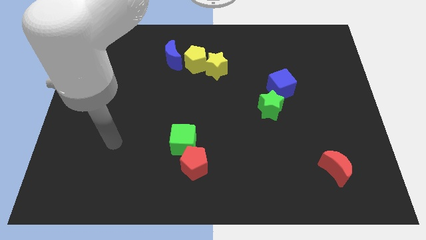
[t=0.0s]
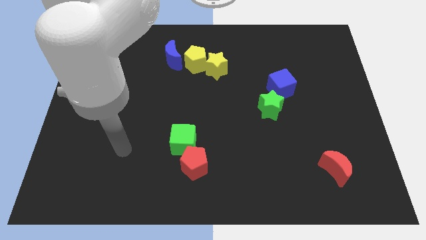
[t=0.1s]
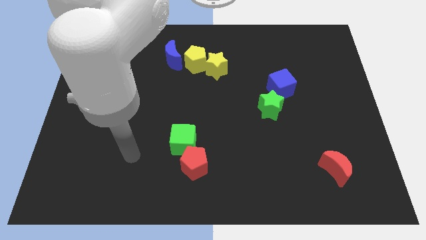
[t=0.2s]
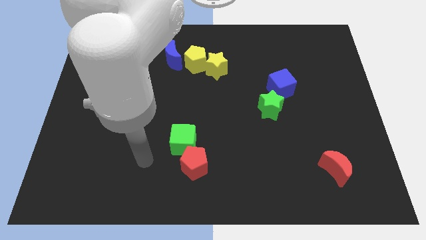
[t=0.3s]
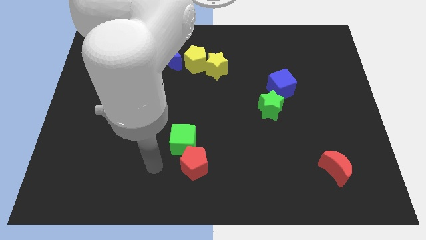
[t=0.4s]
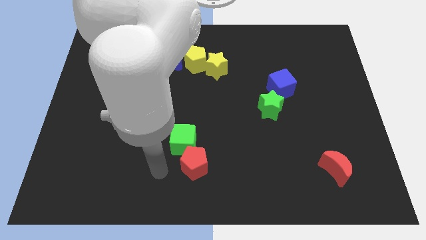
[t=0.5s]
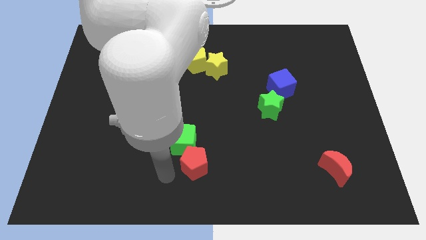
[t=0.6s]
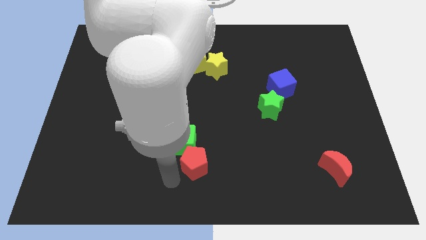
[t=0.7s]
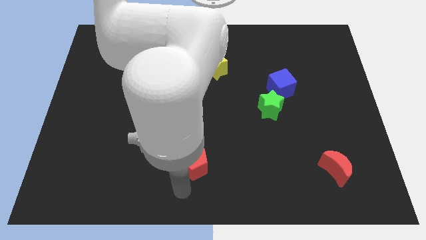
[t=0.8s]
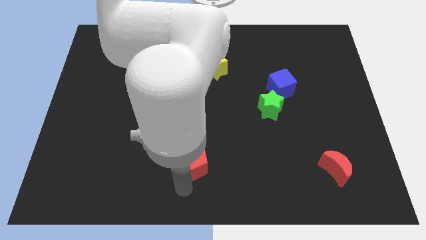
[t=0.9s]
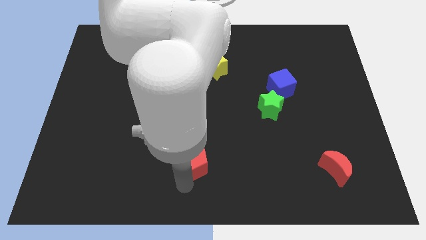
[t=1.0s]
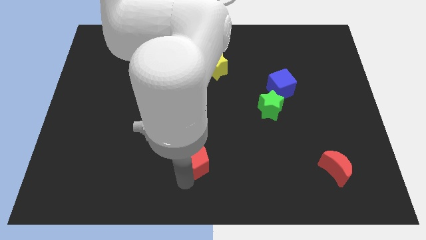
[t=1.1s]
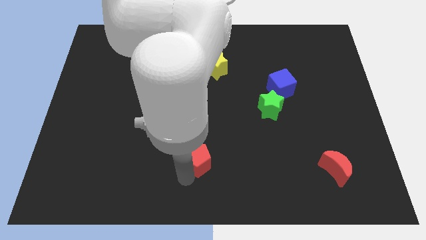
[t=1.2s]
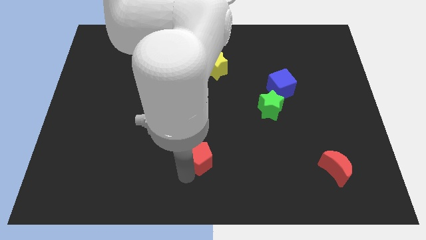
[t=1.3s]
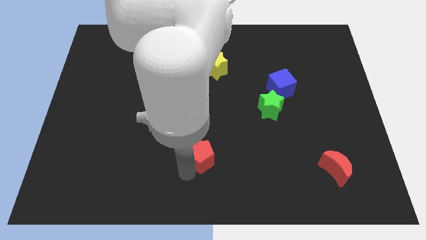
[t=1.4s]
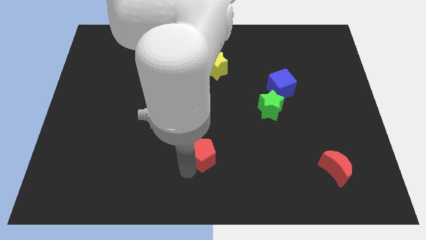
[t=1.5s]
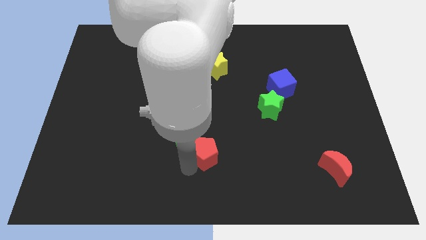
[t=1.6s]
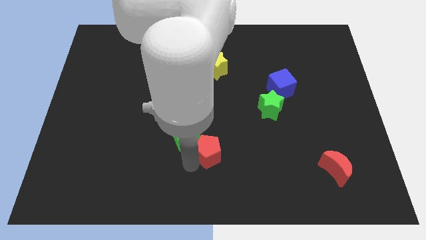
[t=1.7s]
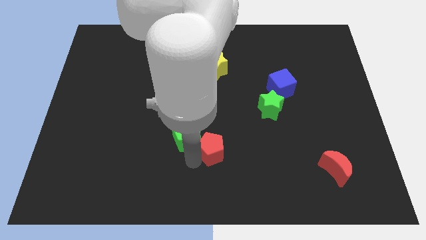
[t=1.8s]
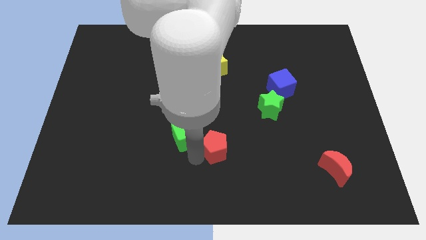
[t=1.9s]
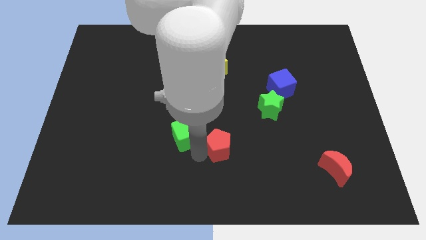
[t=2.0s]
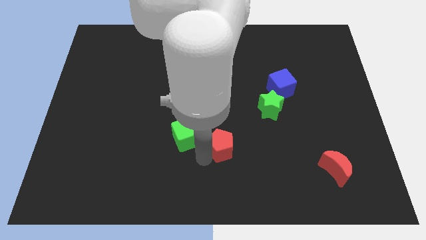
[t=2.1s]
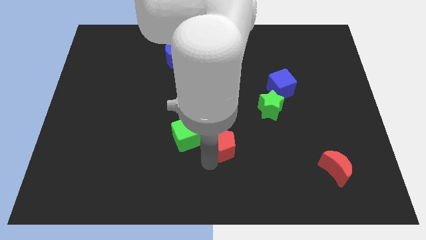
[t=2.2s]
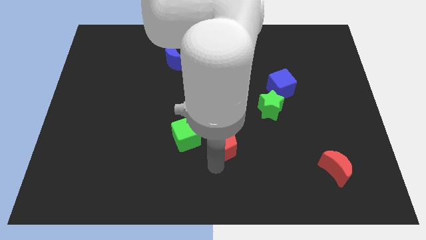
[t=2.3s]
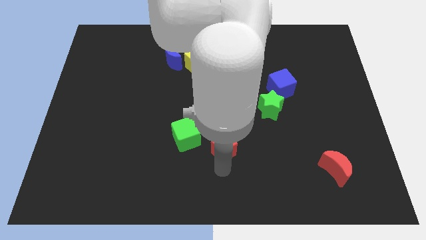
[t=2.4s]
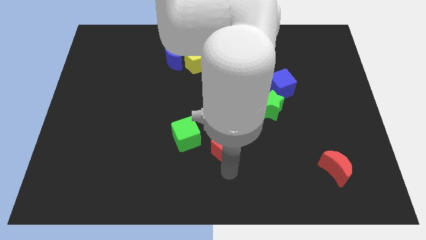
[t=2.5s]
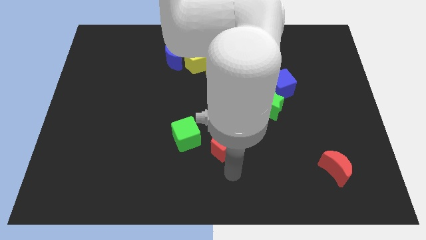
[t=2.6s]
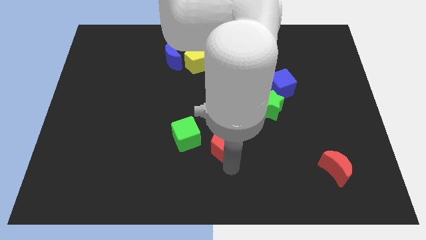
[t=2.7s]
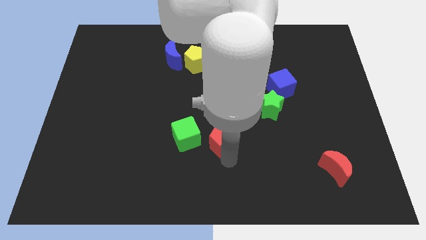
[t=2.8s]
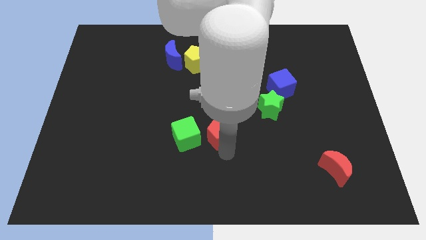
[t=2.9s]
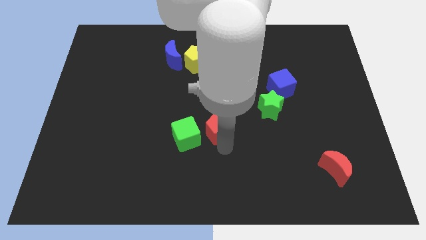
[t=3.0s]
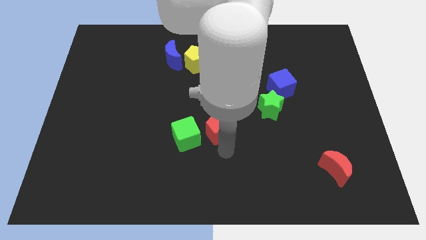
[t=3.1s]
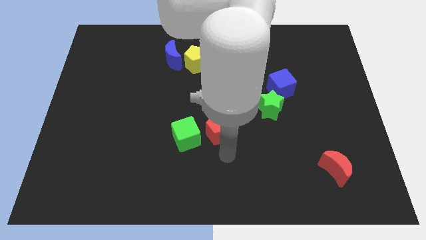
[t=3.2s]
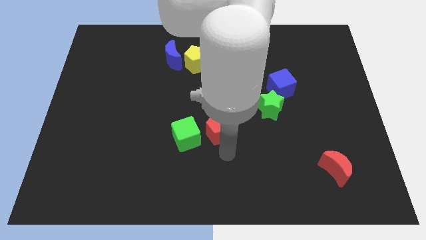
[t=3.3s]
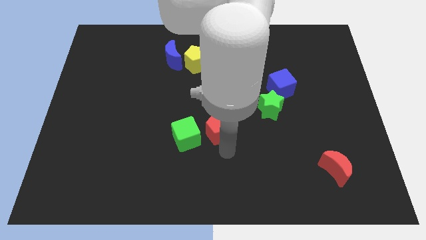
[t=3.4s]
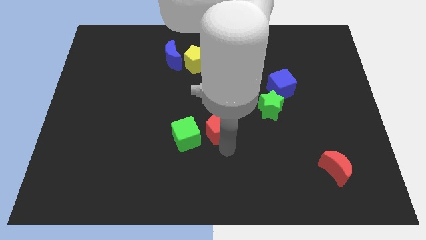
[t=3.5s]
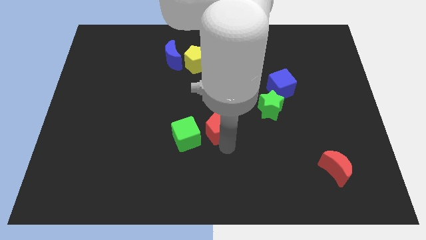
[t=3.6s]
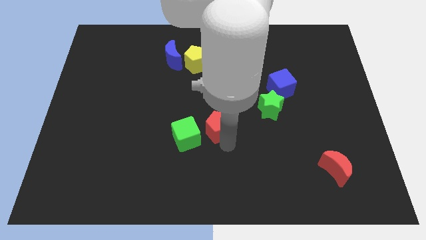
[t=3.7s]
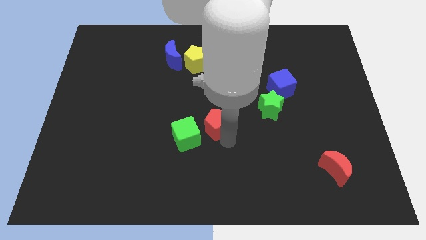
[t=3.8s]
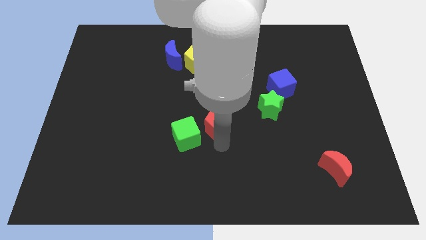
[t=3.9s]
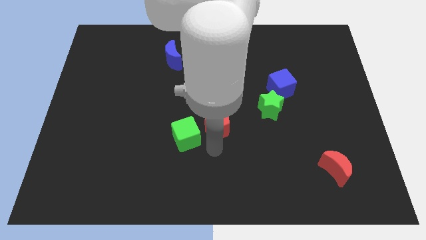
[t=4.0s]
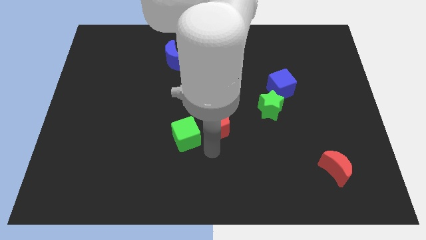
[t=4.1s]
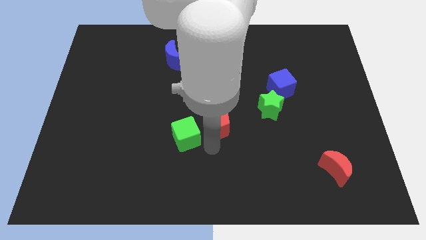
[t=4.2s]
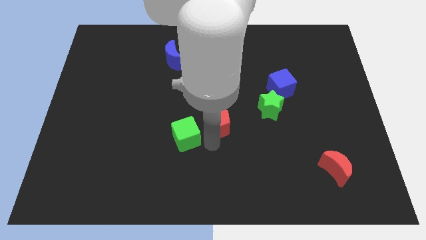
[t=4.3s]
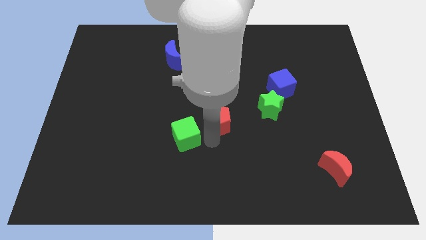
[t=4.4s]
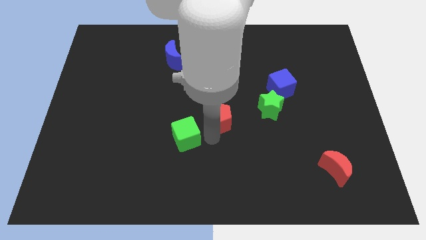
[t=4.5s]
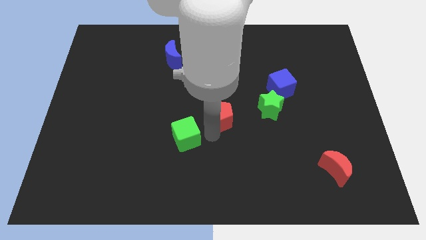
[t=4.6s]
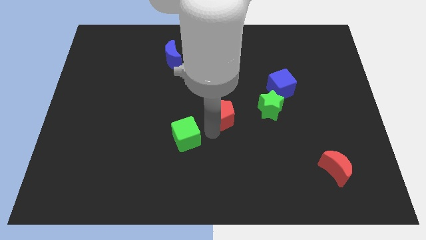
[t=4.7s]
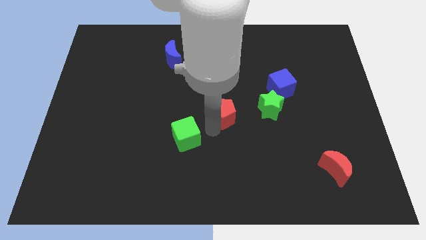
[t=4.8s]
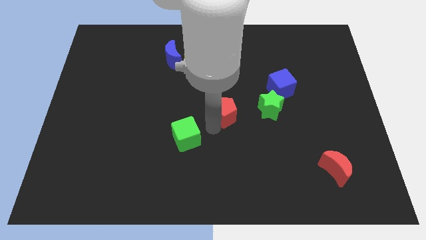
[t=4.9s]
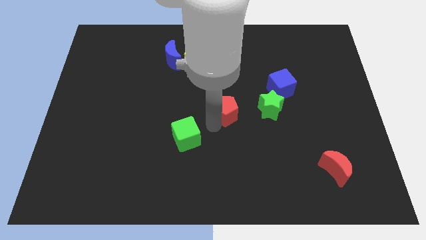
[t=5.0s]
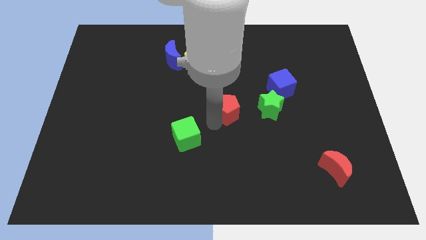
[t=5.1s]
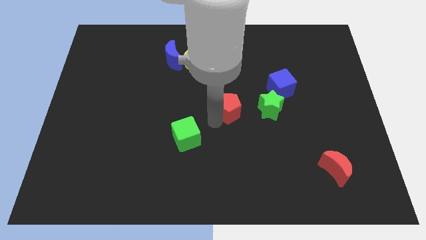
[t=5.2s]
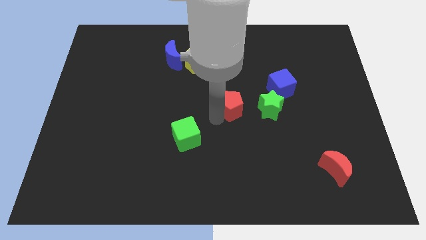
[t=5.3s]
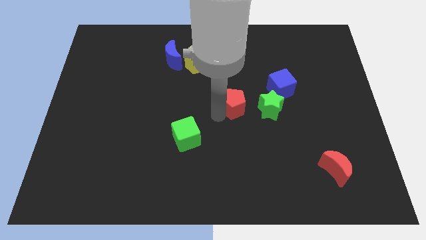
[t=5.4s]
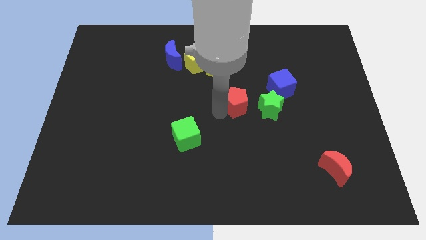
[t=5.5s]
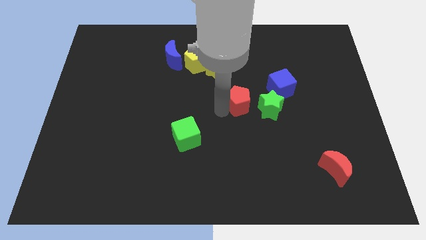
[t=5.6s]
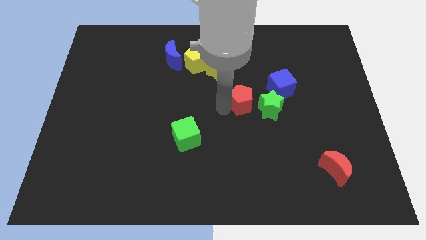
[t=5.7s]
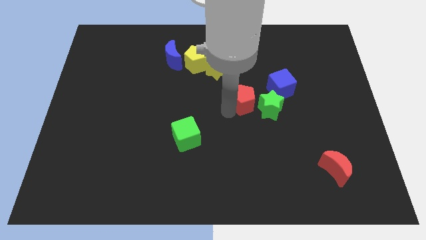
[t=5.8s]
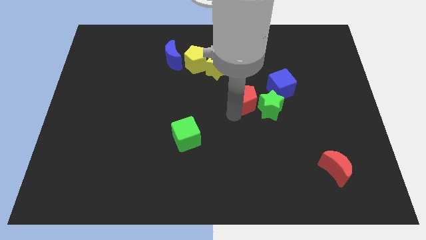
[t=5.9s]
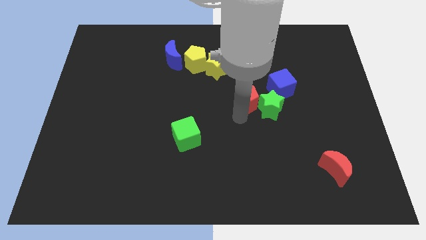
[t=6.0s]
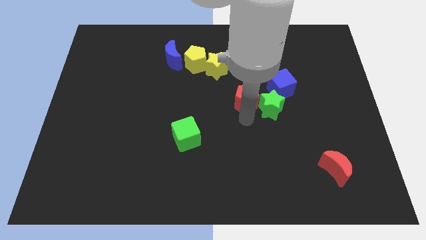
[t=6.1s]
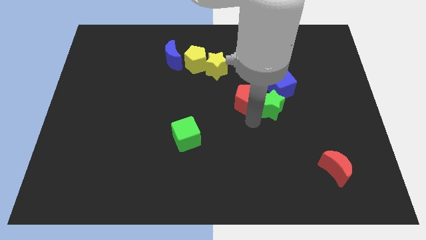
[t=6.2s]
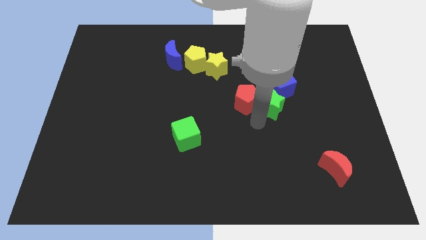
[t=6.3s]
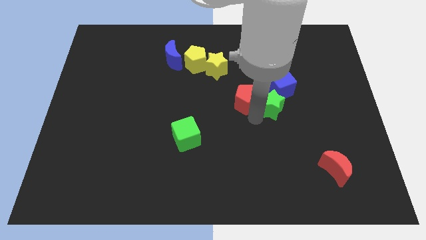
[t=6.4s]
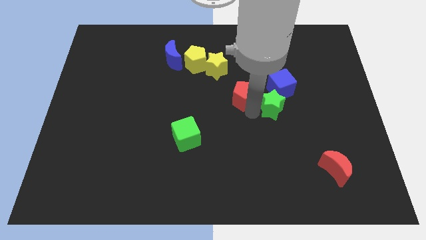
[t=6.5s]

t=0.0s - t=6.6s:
move the red pentagon to the bottom right side of the yellow star

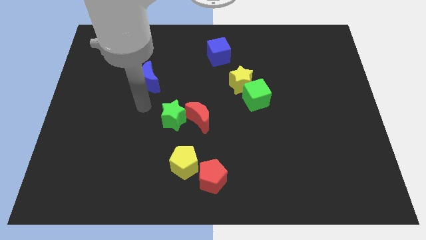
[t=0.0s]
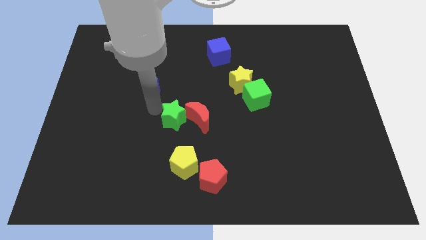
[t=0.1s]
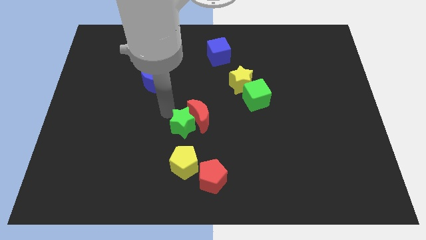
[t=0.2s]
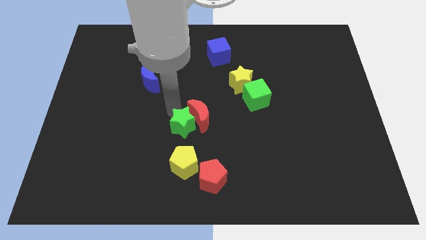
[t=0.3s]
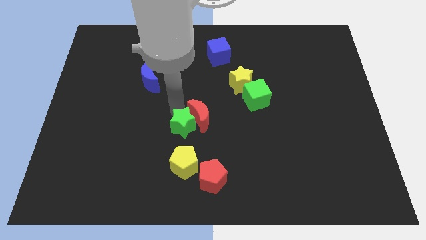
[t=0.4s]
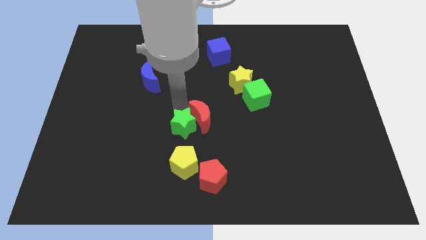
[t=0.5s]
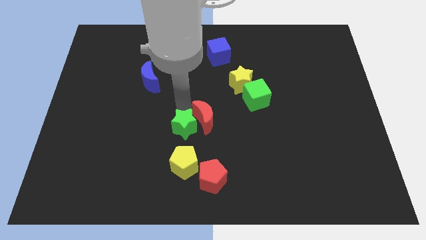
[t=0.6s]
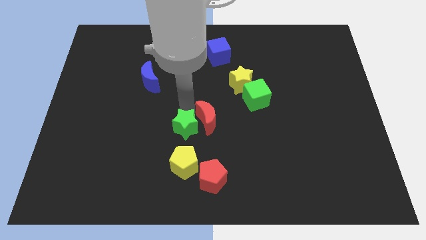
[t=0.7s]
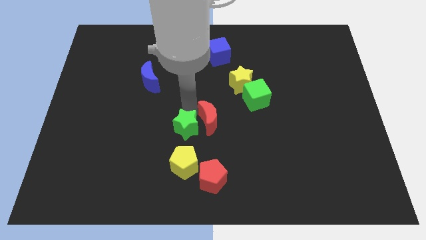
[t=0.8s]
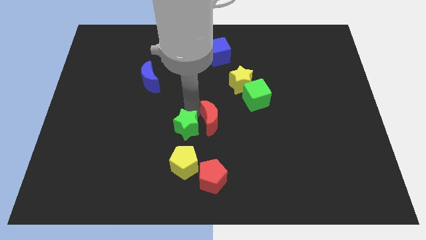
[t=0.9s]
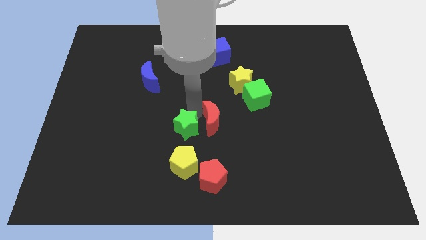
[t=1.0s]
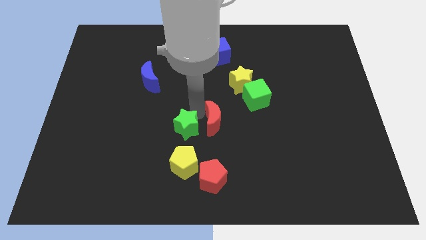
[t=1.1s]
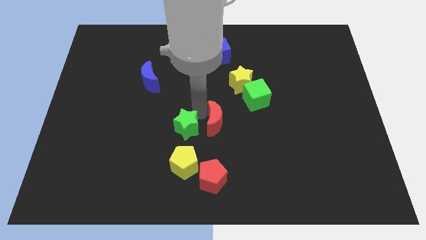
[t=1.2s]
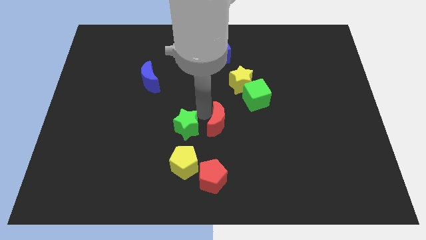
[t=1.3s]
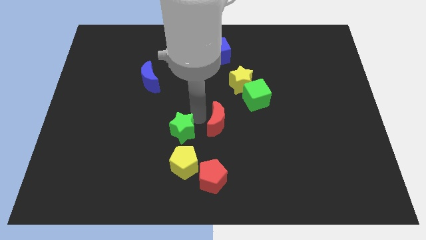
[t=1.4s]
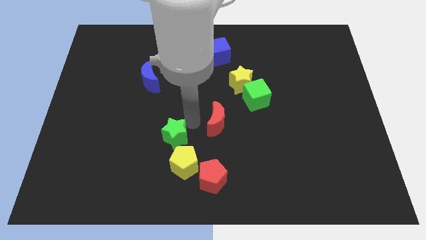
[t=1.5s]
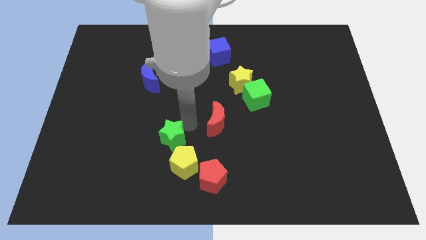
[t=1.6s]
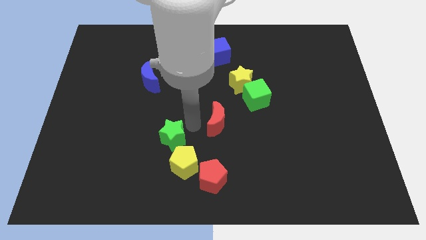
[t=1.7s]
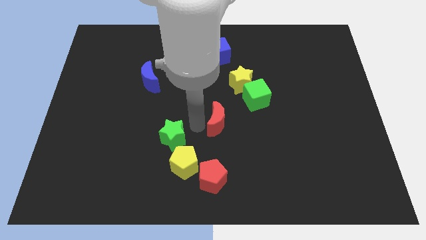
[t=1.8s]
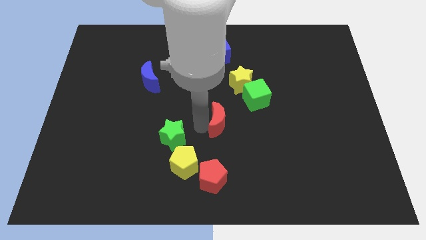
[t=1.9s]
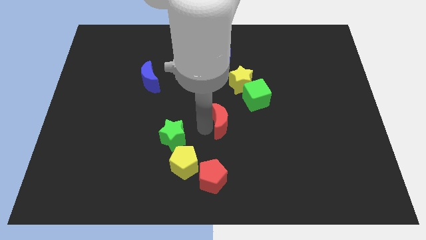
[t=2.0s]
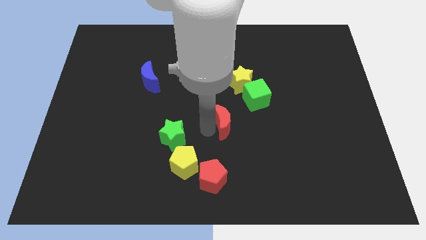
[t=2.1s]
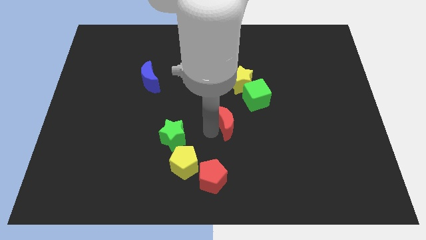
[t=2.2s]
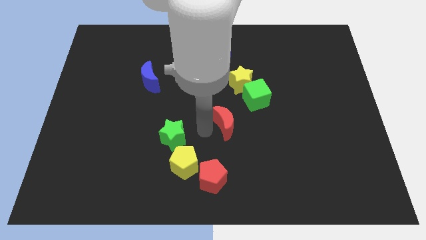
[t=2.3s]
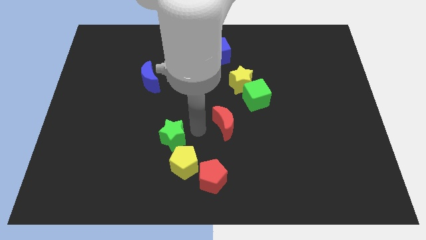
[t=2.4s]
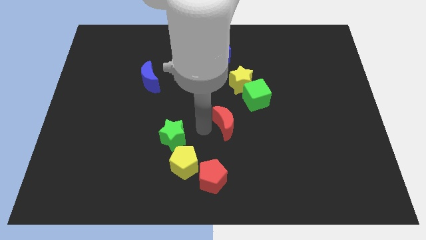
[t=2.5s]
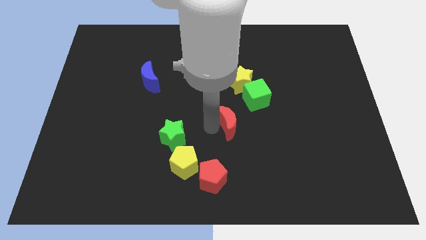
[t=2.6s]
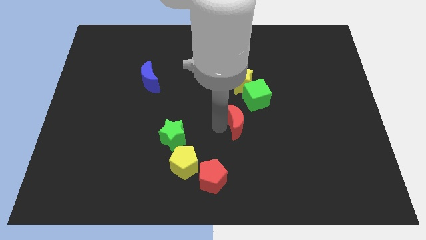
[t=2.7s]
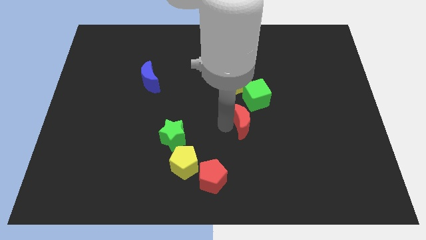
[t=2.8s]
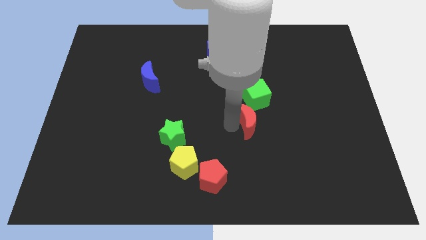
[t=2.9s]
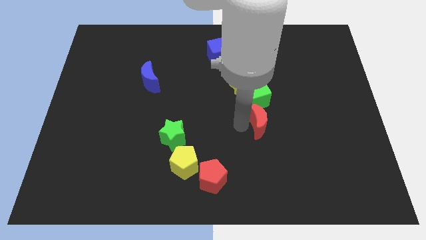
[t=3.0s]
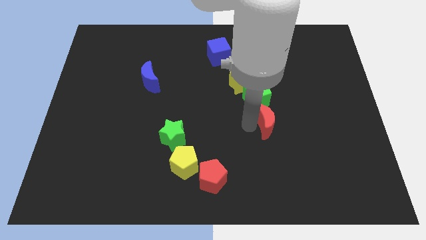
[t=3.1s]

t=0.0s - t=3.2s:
push the red moon to the bottom right of the green cube
